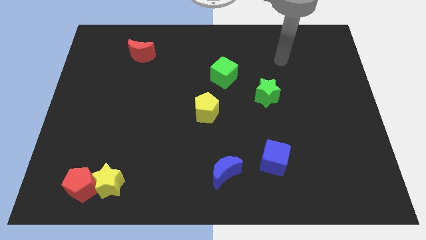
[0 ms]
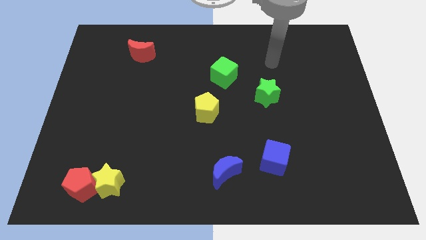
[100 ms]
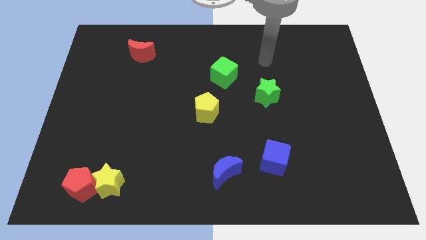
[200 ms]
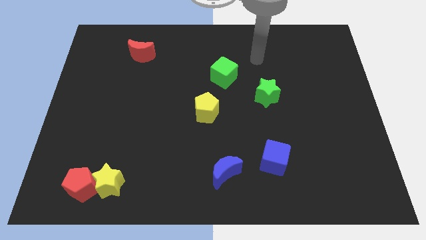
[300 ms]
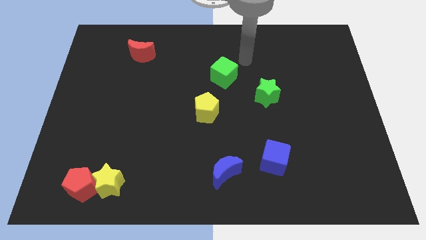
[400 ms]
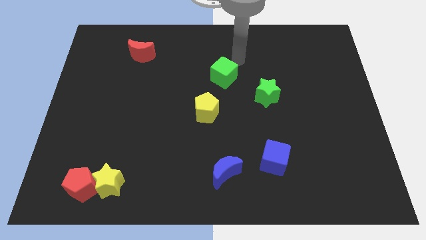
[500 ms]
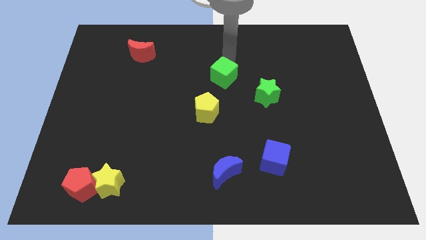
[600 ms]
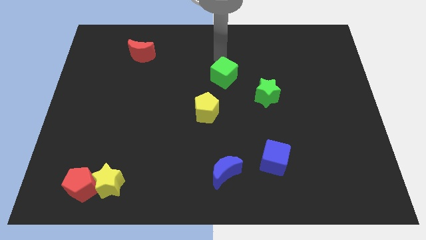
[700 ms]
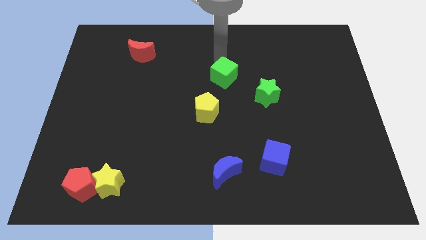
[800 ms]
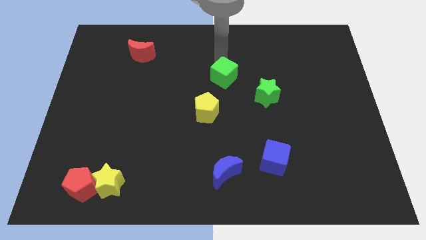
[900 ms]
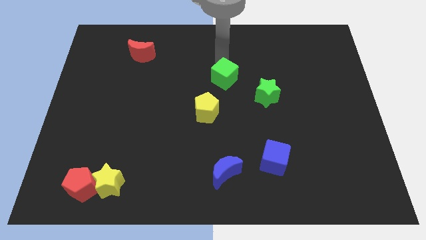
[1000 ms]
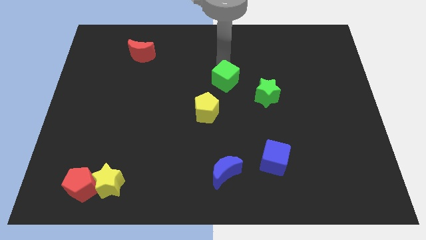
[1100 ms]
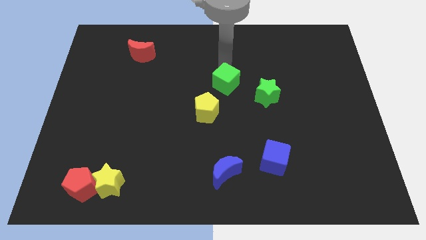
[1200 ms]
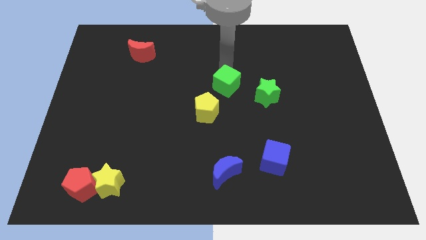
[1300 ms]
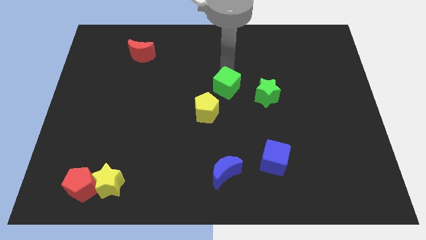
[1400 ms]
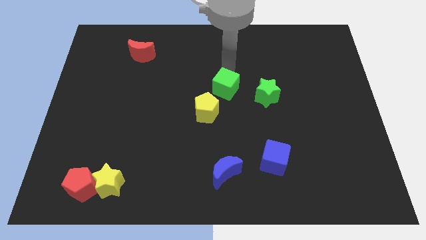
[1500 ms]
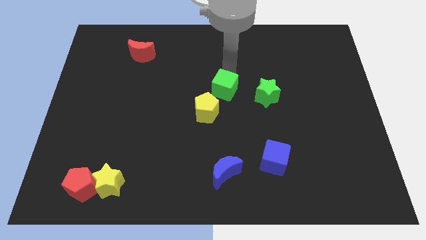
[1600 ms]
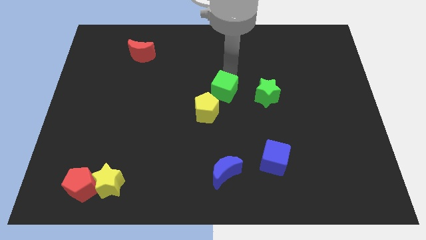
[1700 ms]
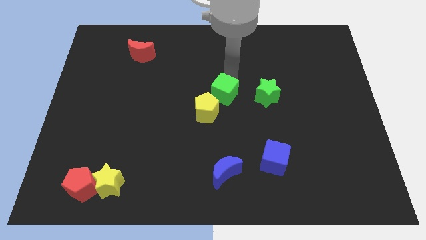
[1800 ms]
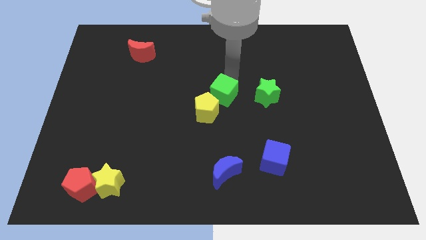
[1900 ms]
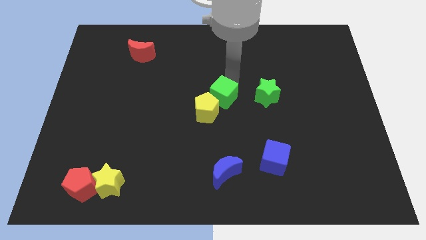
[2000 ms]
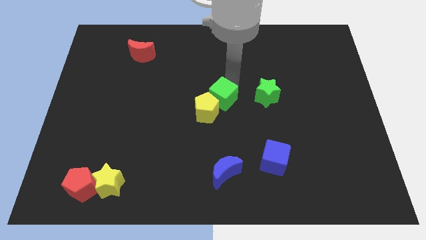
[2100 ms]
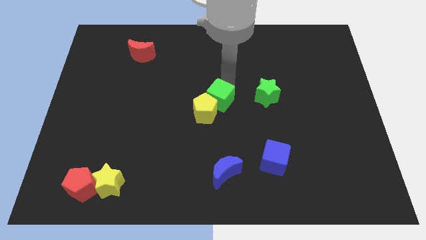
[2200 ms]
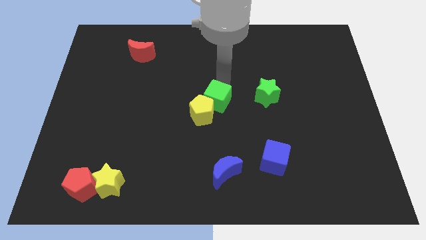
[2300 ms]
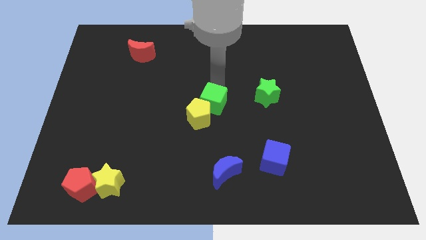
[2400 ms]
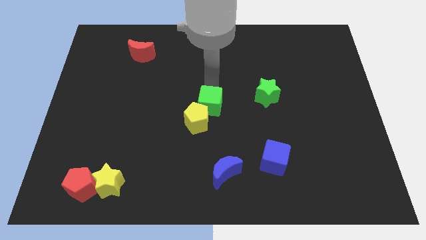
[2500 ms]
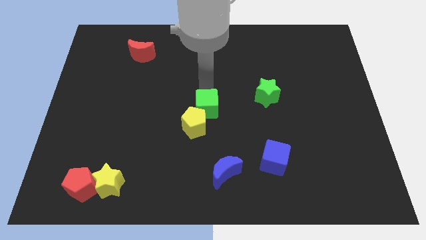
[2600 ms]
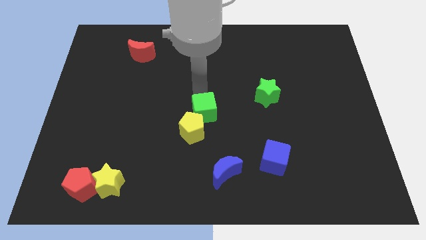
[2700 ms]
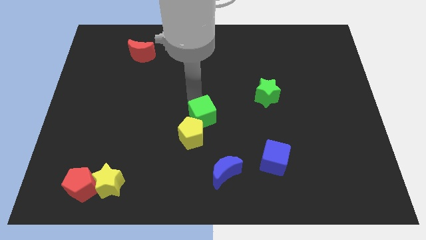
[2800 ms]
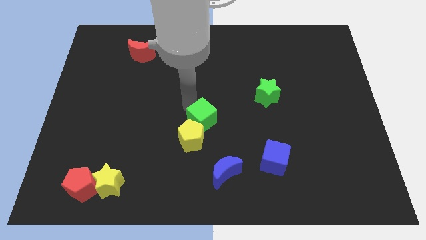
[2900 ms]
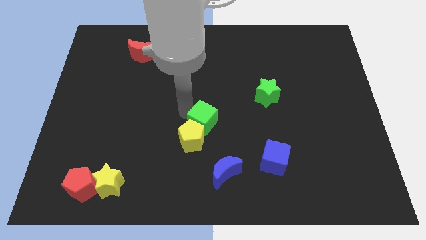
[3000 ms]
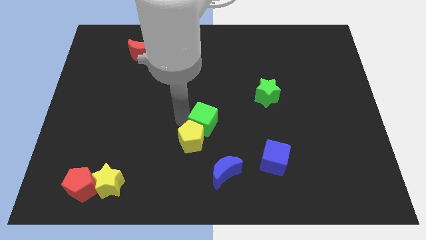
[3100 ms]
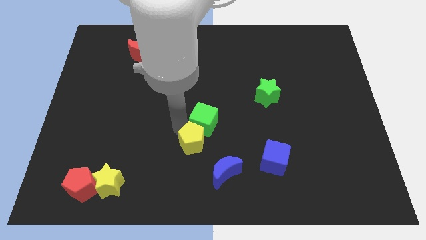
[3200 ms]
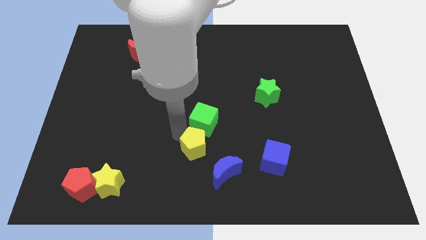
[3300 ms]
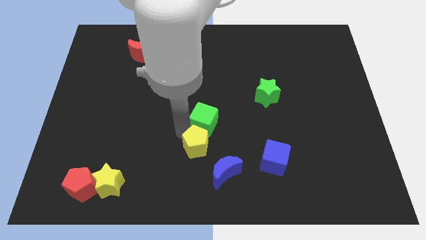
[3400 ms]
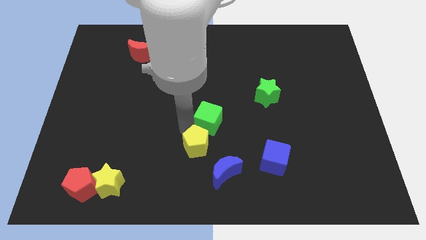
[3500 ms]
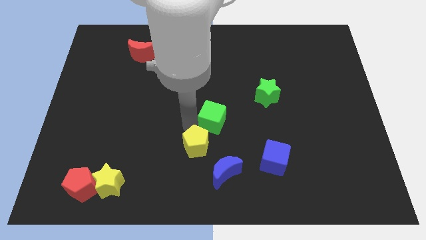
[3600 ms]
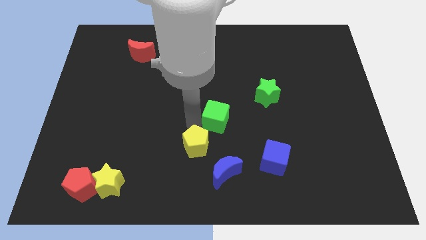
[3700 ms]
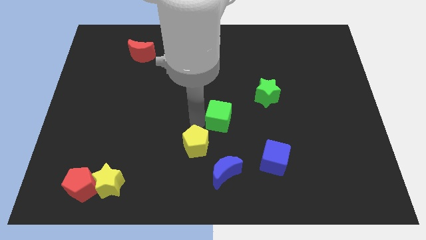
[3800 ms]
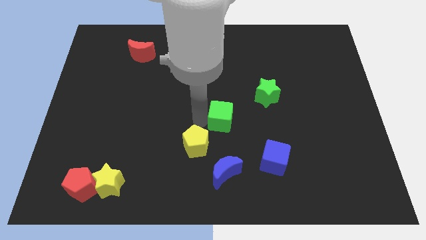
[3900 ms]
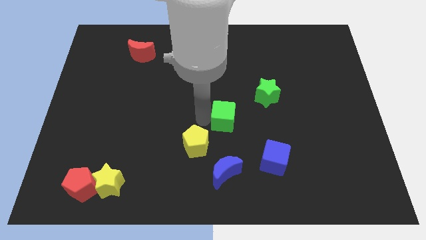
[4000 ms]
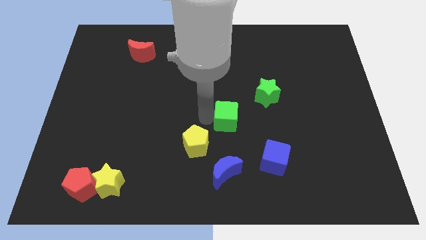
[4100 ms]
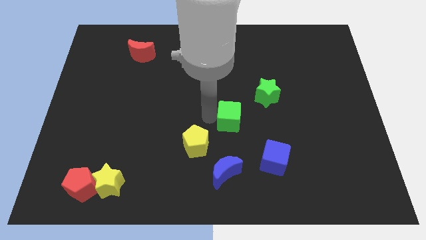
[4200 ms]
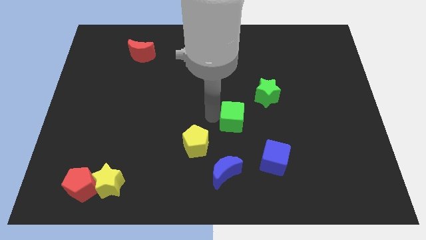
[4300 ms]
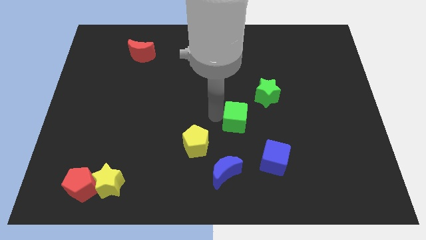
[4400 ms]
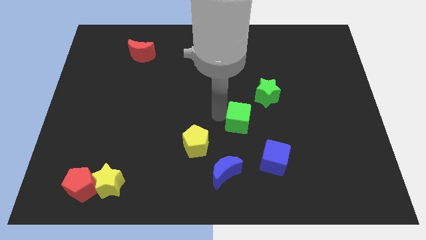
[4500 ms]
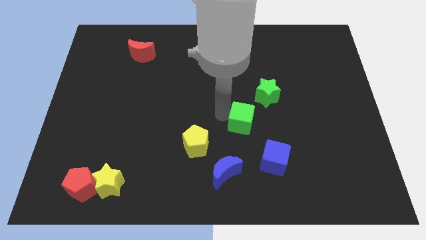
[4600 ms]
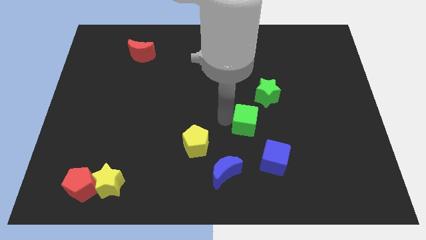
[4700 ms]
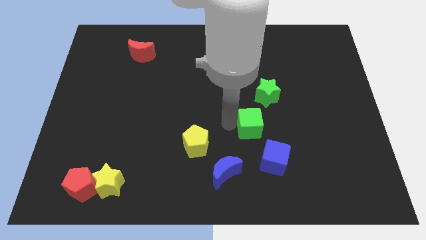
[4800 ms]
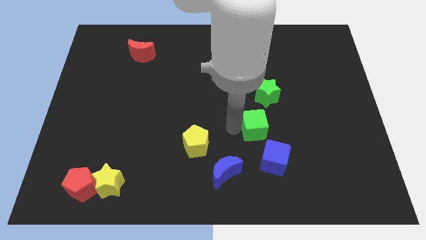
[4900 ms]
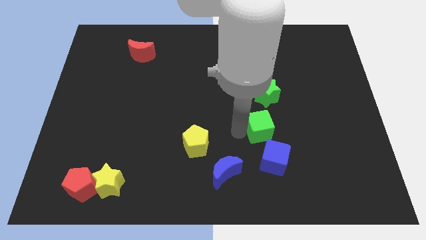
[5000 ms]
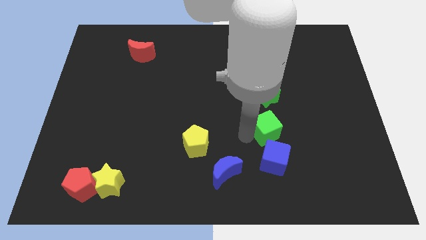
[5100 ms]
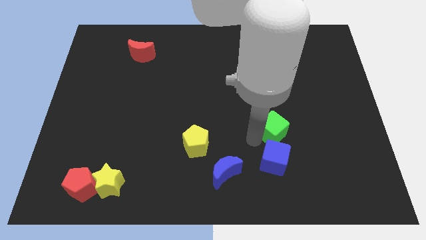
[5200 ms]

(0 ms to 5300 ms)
put the green cube to the top right side of the blue cube

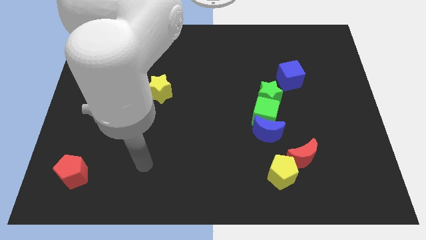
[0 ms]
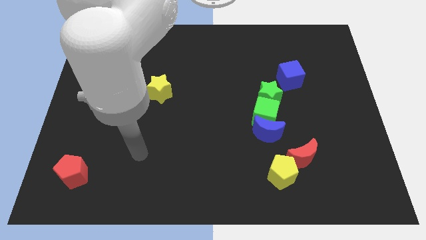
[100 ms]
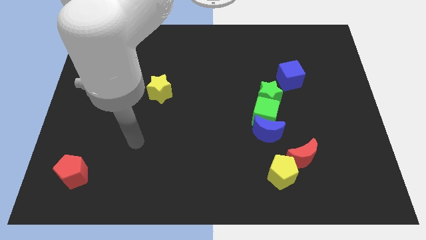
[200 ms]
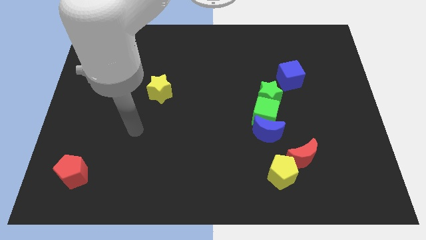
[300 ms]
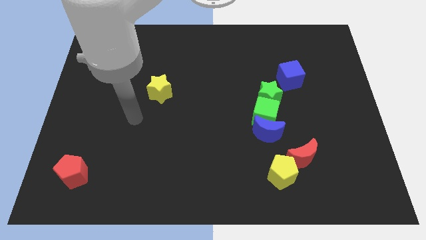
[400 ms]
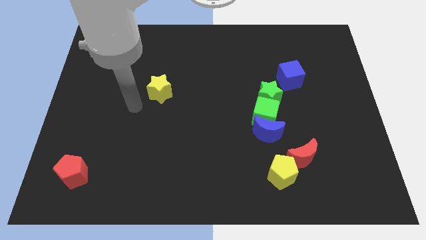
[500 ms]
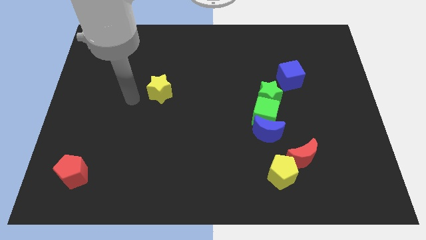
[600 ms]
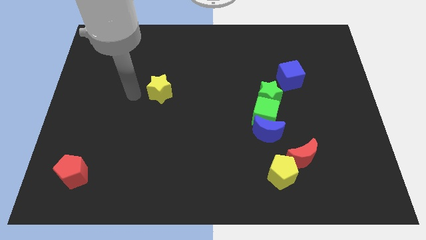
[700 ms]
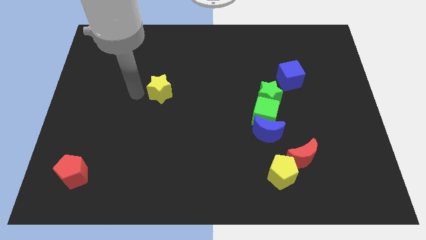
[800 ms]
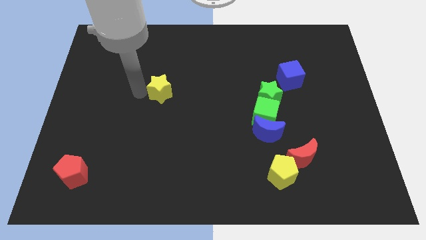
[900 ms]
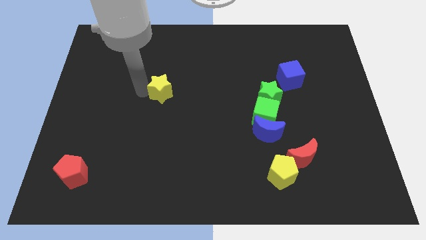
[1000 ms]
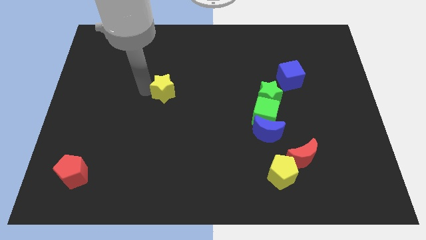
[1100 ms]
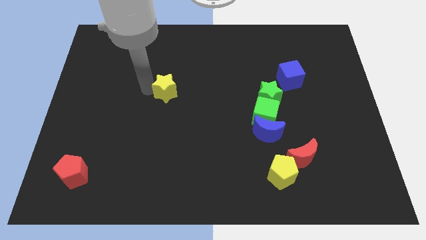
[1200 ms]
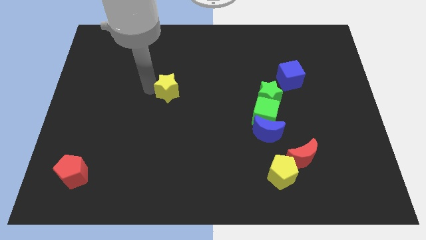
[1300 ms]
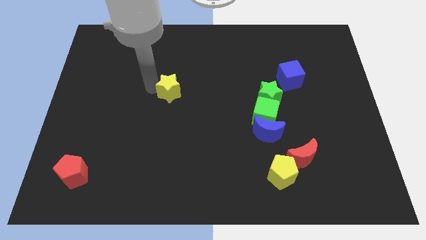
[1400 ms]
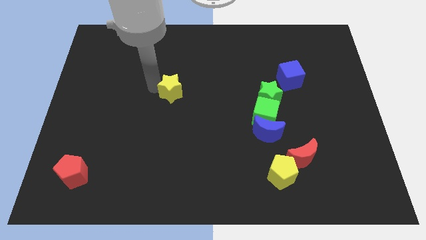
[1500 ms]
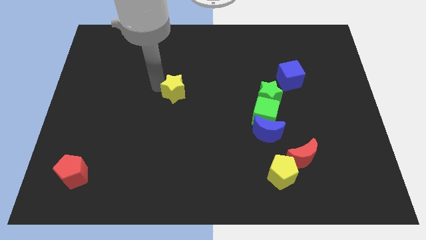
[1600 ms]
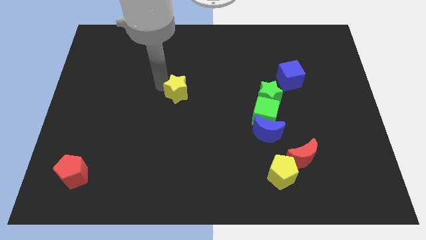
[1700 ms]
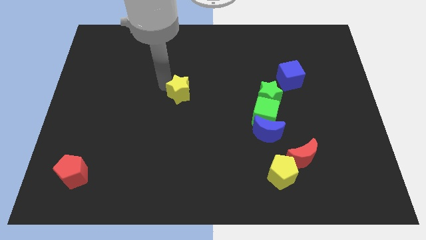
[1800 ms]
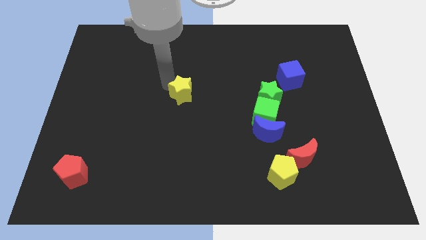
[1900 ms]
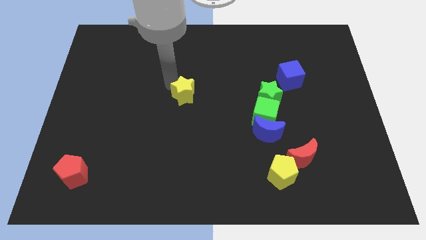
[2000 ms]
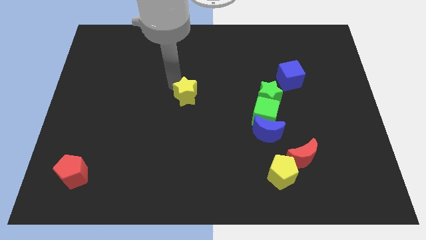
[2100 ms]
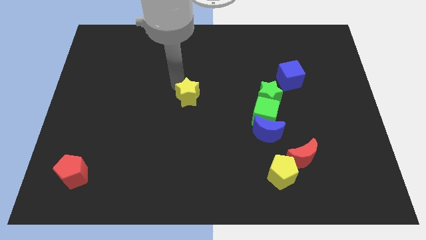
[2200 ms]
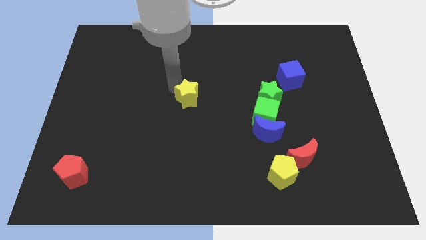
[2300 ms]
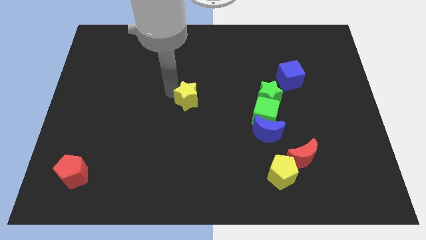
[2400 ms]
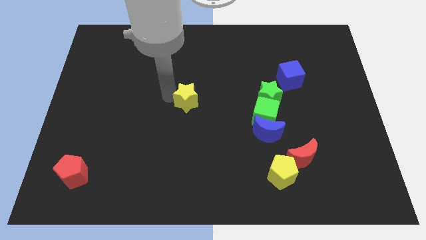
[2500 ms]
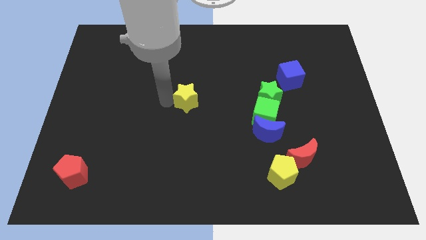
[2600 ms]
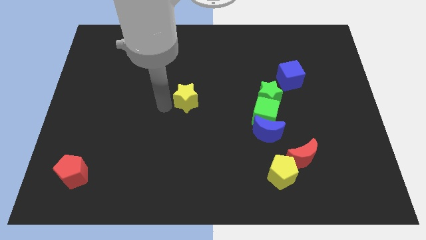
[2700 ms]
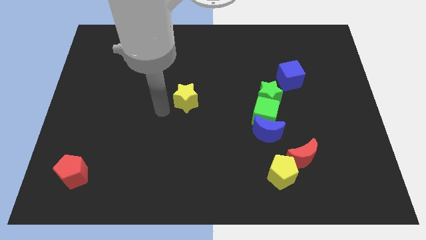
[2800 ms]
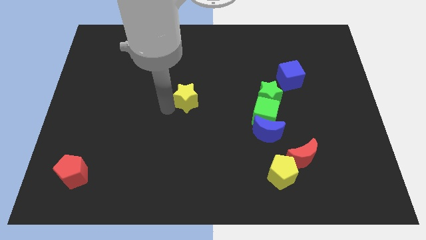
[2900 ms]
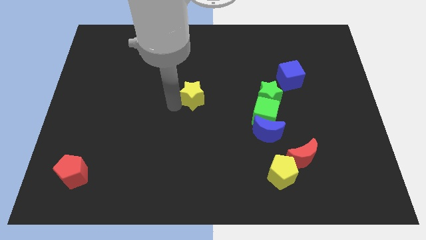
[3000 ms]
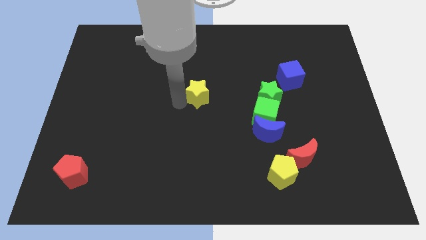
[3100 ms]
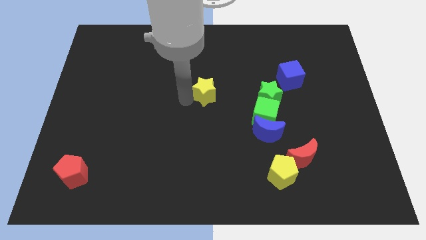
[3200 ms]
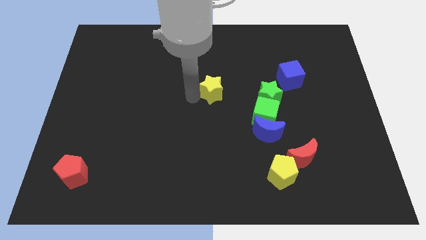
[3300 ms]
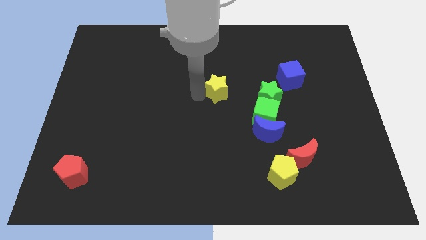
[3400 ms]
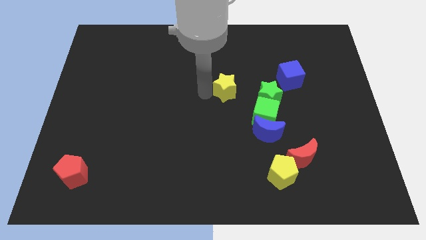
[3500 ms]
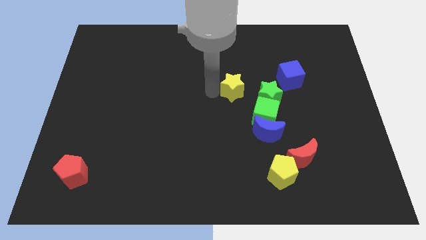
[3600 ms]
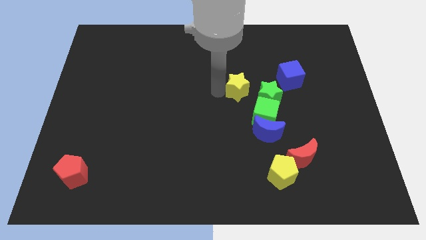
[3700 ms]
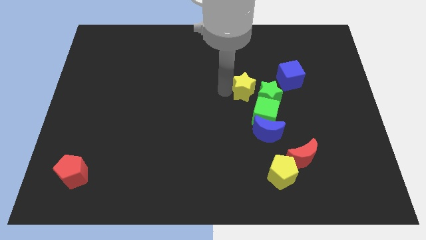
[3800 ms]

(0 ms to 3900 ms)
slide the yellow star to the top of the green cube
